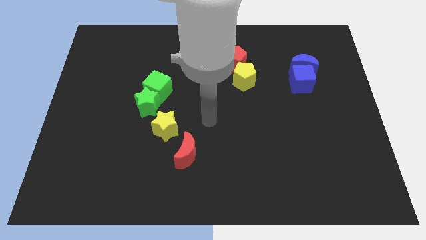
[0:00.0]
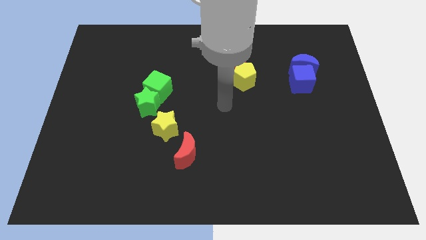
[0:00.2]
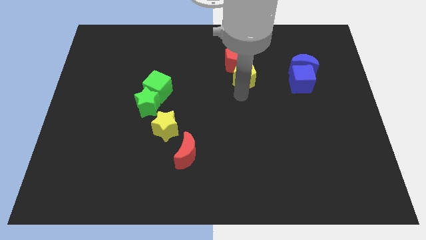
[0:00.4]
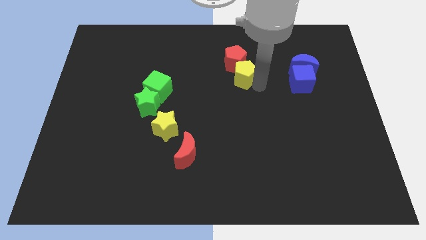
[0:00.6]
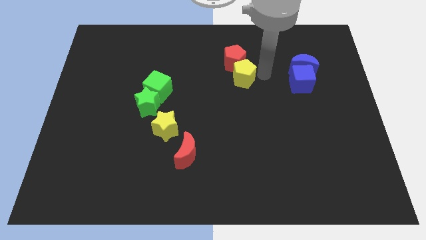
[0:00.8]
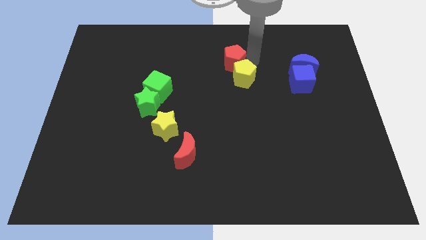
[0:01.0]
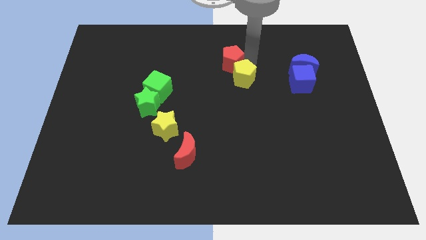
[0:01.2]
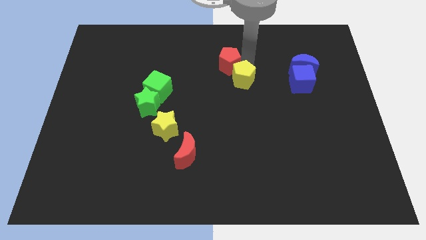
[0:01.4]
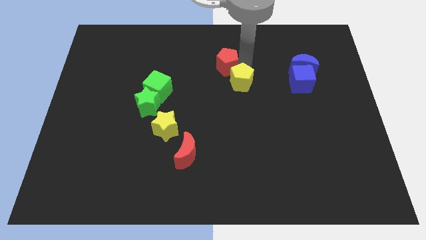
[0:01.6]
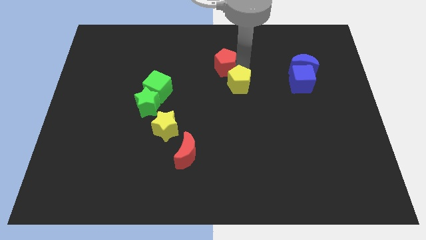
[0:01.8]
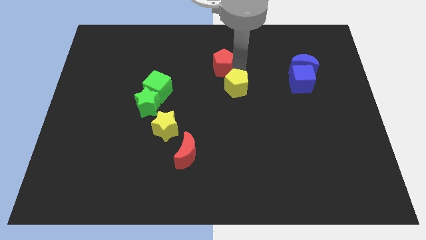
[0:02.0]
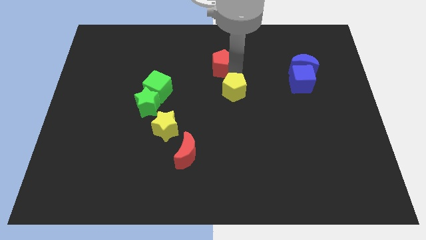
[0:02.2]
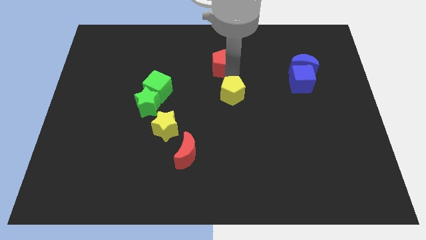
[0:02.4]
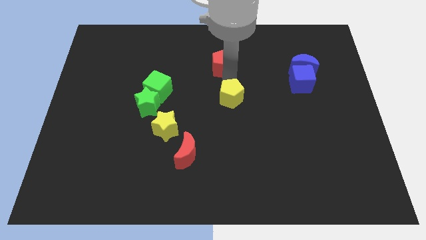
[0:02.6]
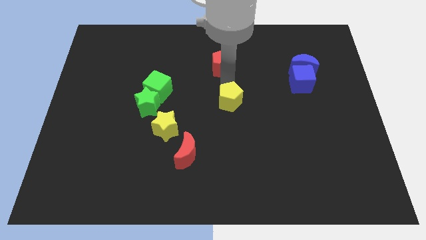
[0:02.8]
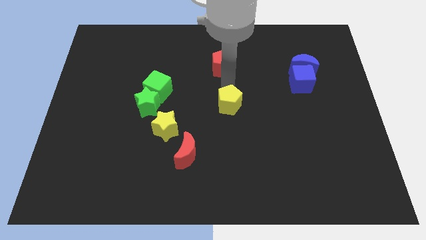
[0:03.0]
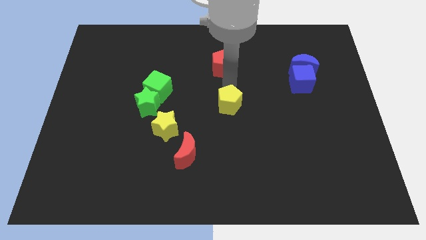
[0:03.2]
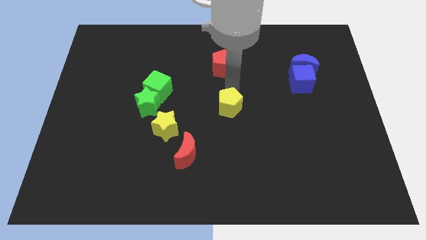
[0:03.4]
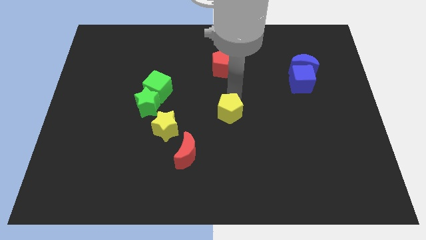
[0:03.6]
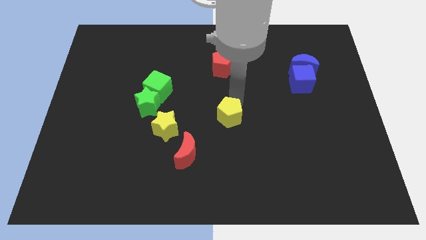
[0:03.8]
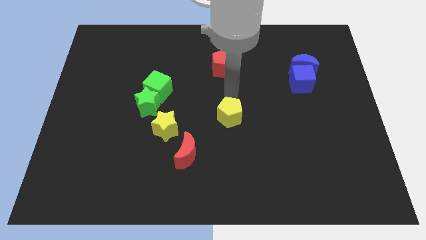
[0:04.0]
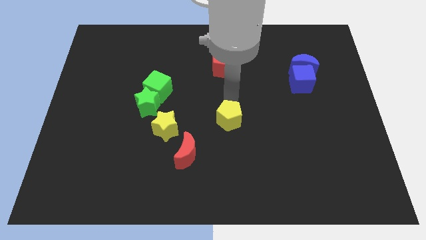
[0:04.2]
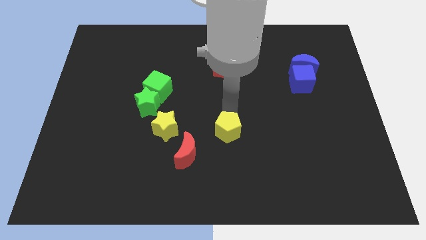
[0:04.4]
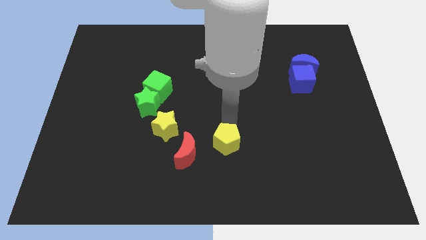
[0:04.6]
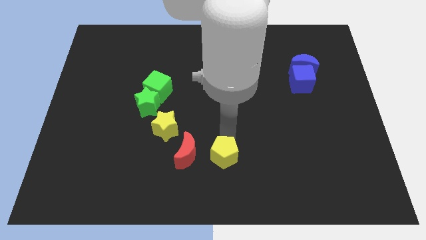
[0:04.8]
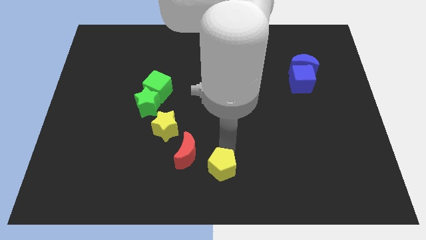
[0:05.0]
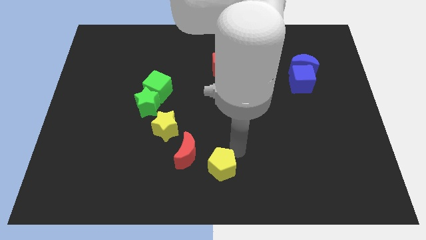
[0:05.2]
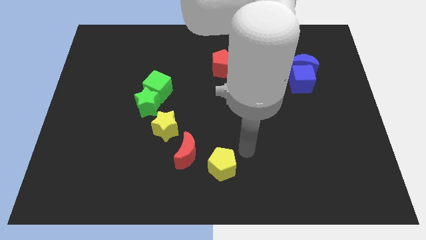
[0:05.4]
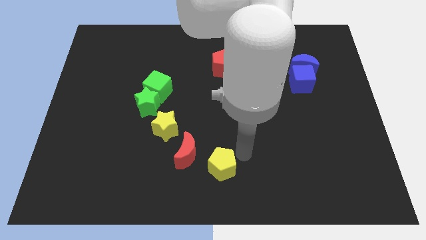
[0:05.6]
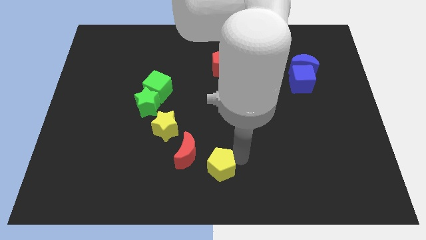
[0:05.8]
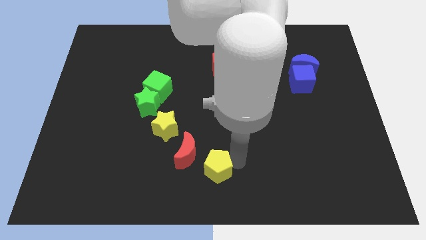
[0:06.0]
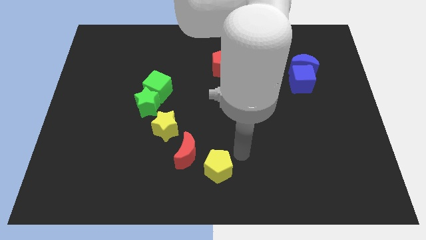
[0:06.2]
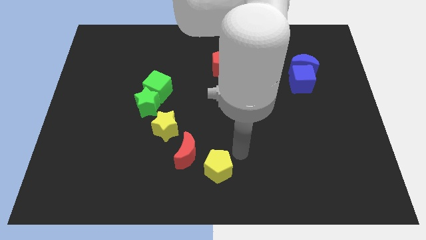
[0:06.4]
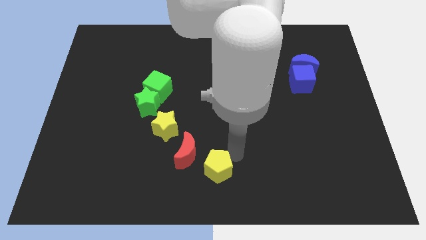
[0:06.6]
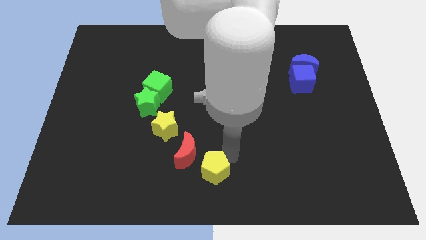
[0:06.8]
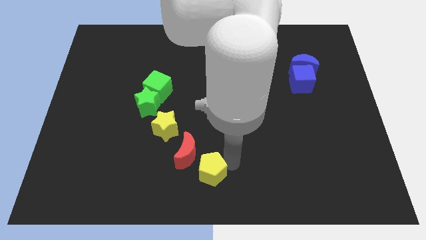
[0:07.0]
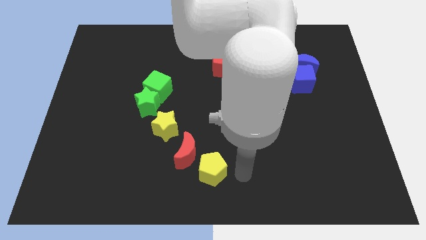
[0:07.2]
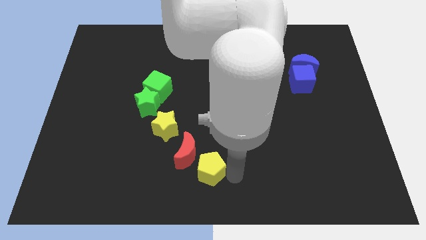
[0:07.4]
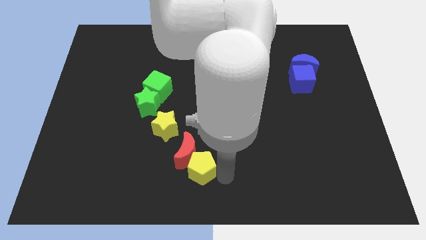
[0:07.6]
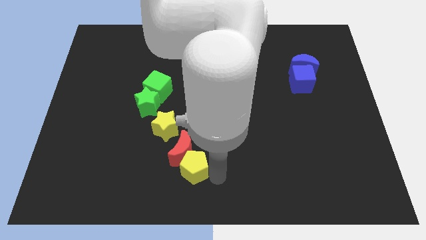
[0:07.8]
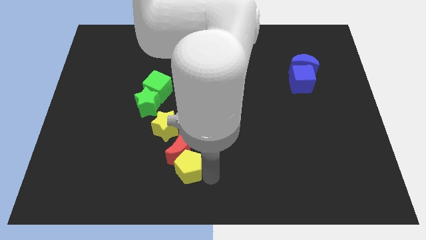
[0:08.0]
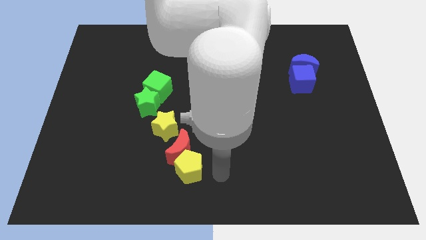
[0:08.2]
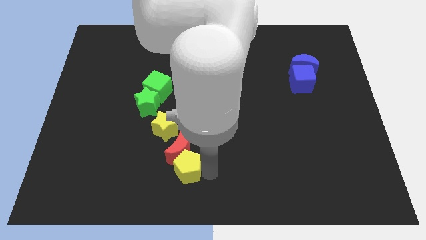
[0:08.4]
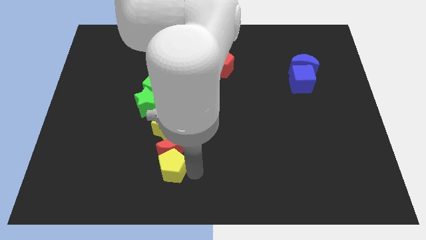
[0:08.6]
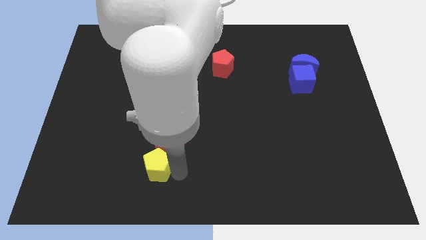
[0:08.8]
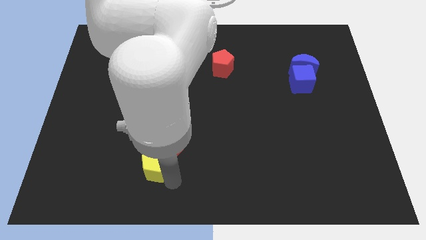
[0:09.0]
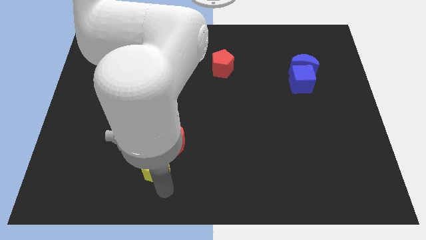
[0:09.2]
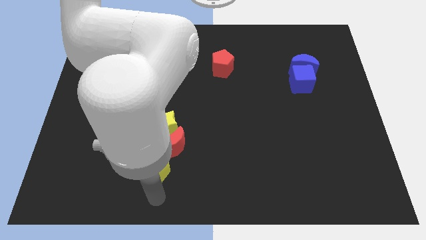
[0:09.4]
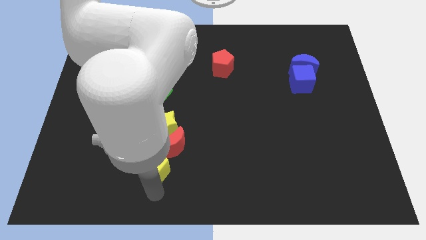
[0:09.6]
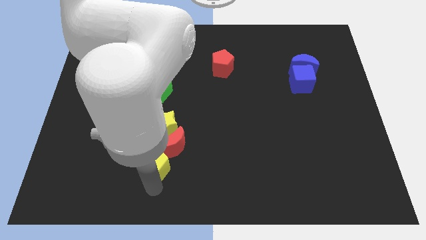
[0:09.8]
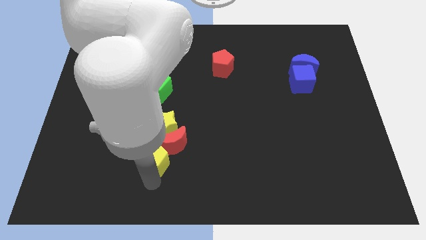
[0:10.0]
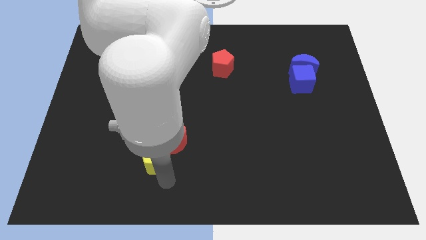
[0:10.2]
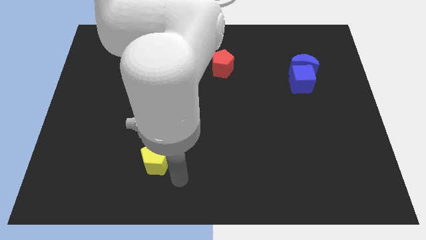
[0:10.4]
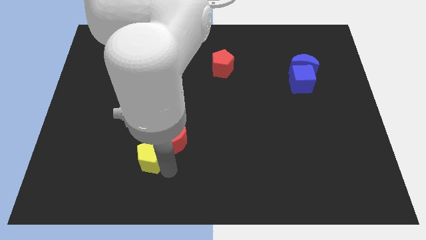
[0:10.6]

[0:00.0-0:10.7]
move the yellow pentagon diagonally down and to the left of the yellow star

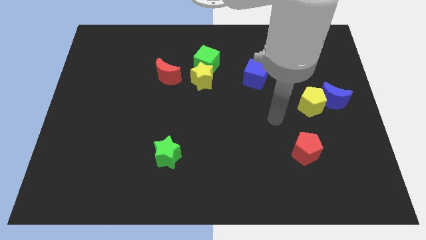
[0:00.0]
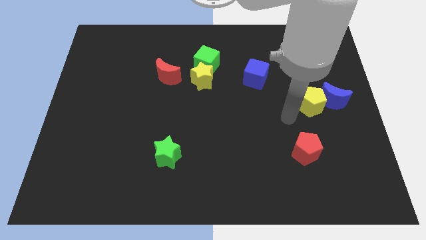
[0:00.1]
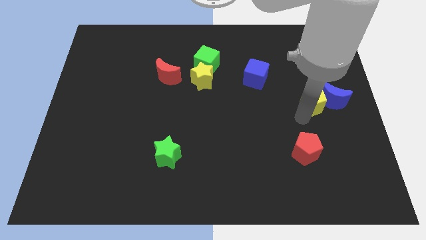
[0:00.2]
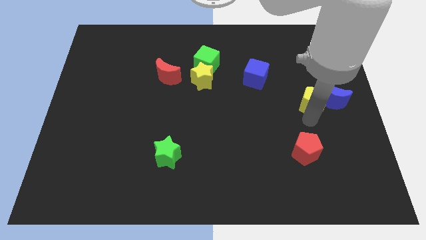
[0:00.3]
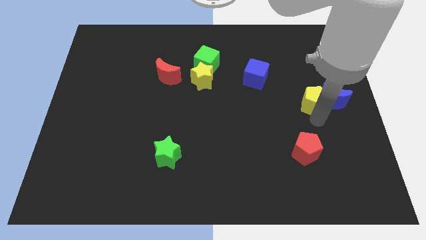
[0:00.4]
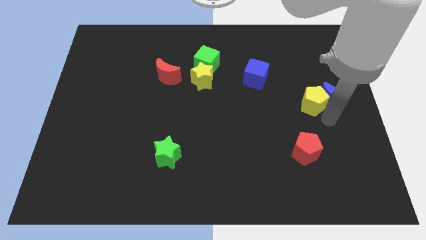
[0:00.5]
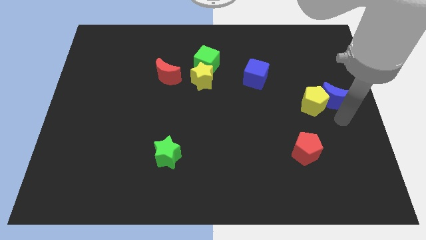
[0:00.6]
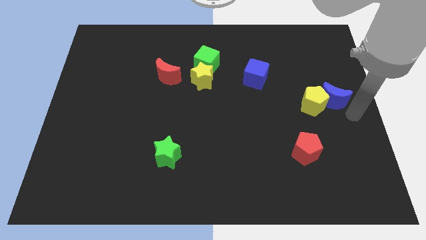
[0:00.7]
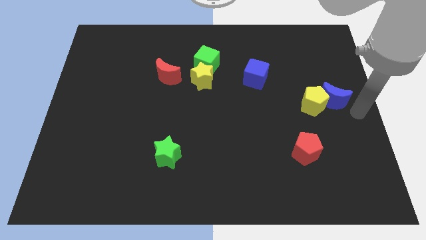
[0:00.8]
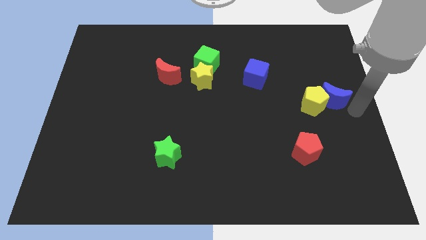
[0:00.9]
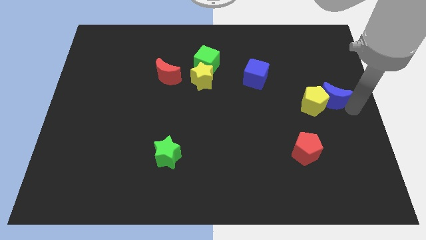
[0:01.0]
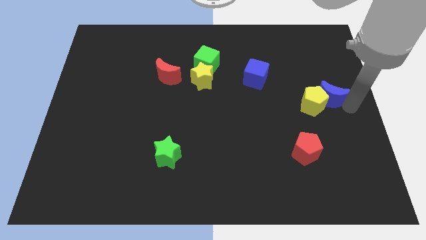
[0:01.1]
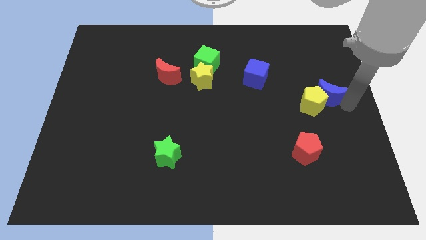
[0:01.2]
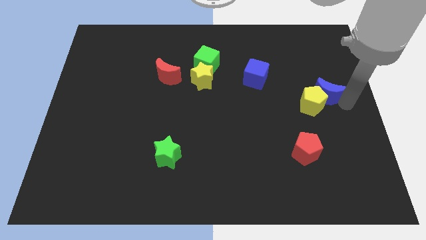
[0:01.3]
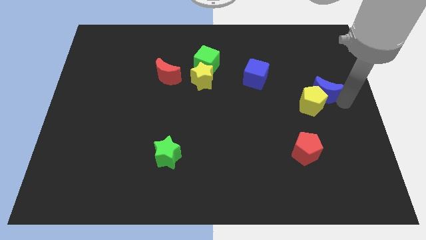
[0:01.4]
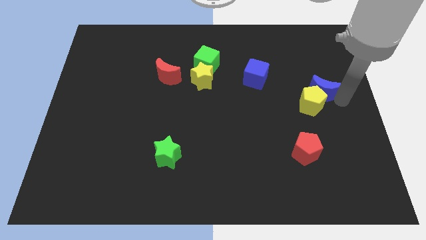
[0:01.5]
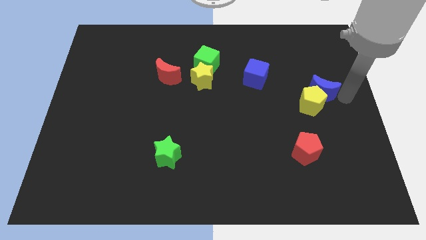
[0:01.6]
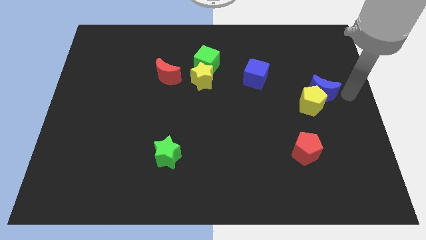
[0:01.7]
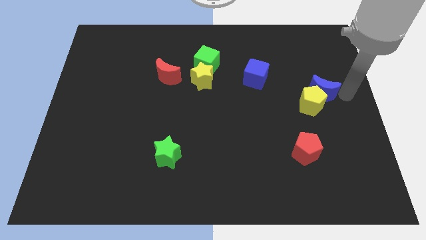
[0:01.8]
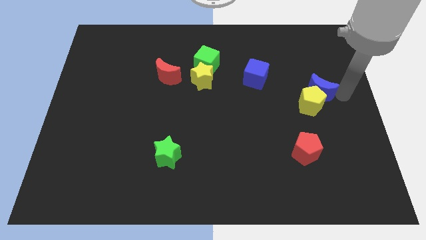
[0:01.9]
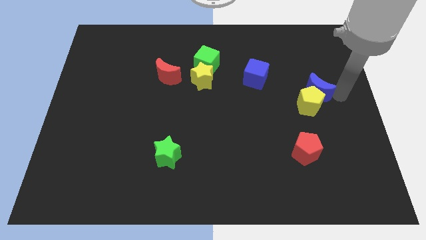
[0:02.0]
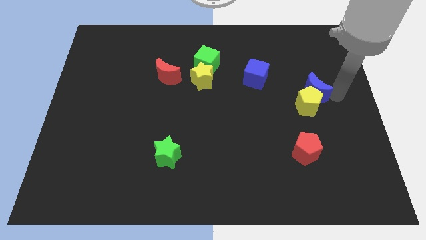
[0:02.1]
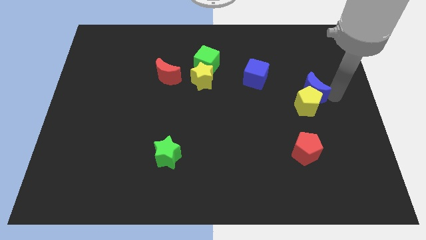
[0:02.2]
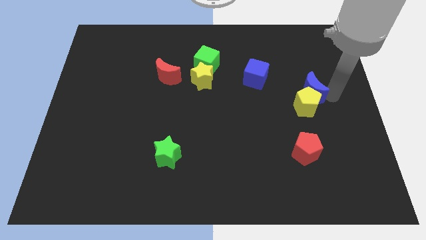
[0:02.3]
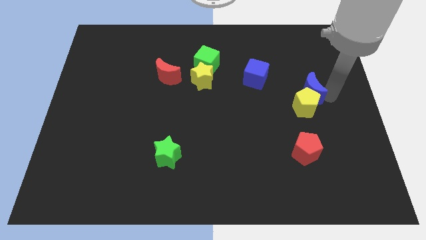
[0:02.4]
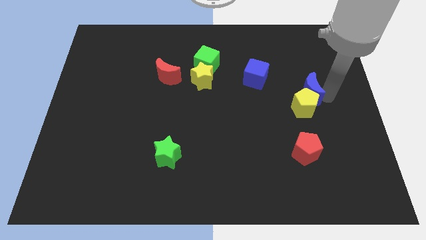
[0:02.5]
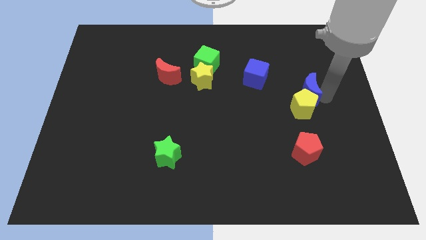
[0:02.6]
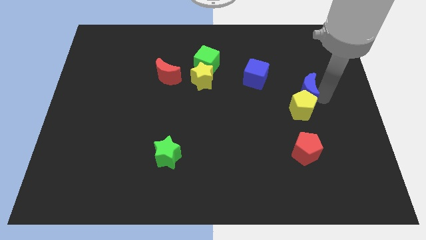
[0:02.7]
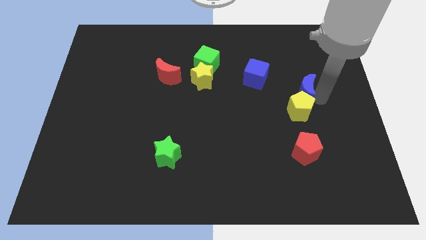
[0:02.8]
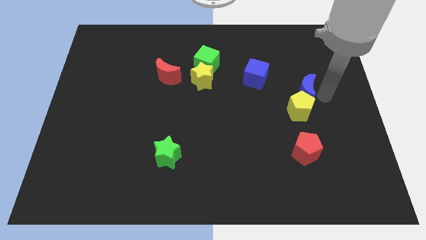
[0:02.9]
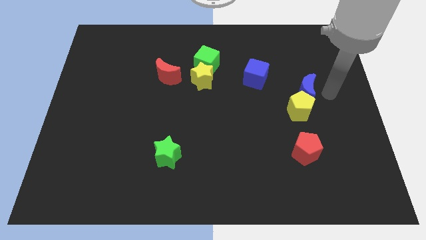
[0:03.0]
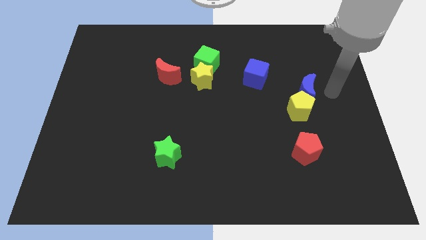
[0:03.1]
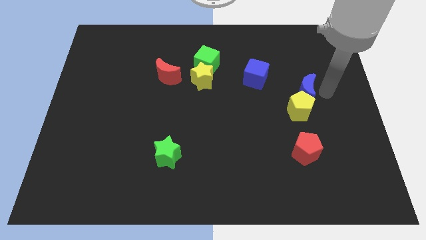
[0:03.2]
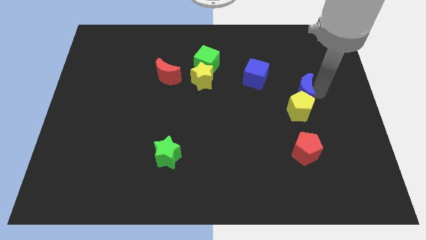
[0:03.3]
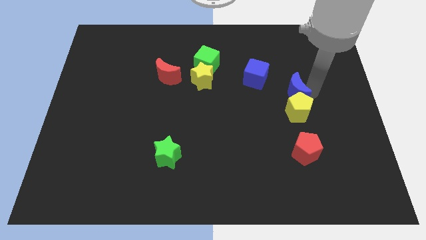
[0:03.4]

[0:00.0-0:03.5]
move the blue moon to the bottom right side of the blue cube
